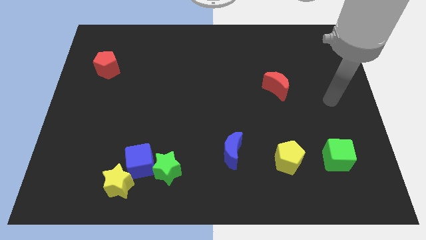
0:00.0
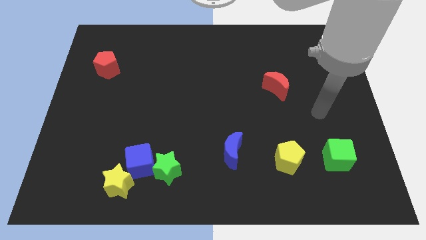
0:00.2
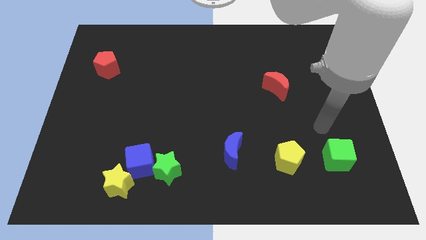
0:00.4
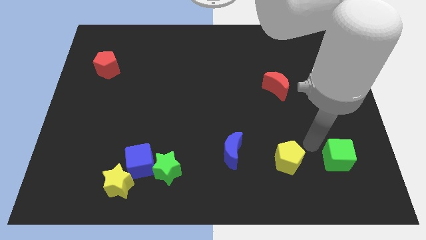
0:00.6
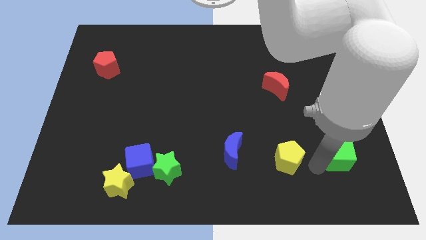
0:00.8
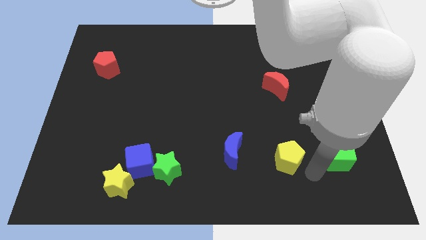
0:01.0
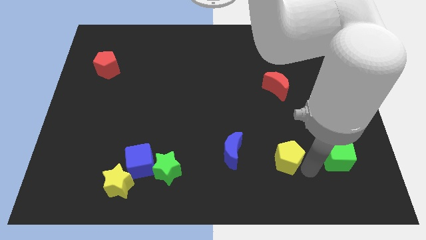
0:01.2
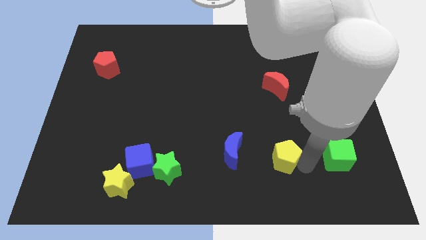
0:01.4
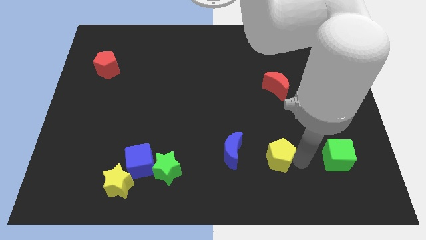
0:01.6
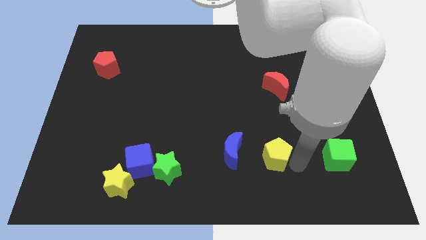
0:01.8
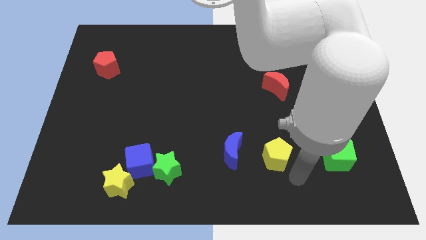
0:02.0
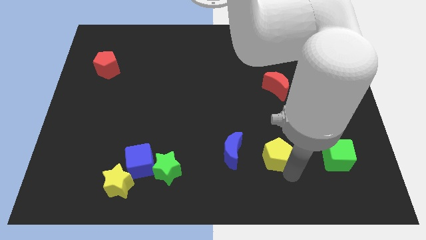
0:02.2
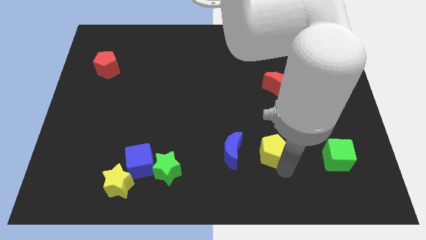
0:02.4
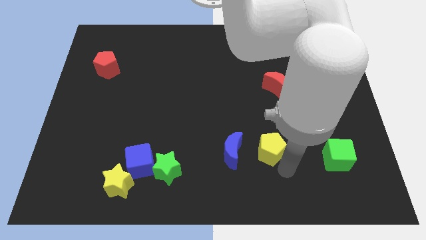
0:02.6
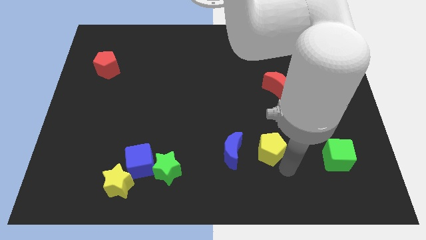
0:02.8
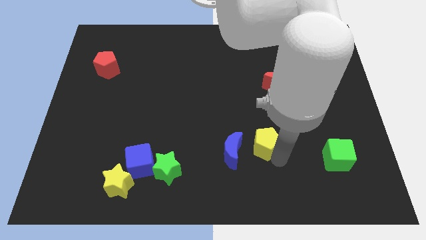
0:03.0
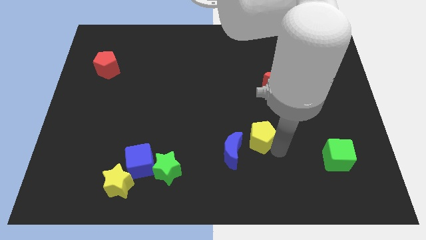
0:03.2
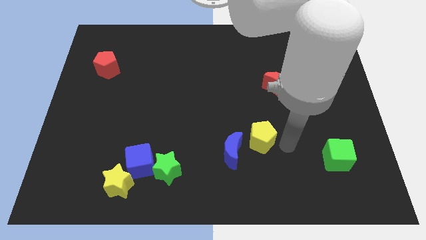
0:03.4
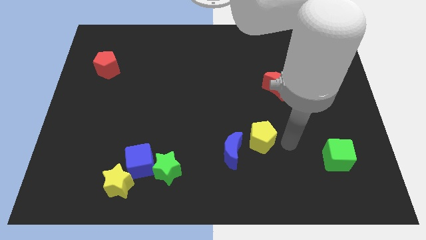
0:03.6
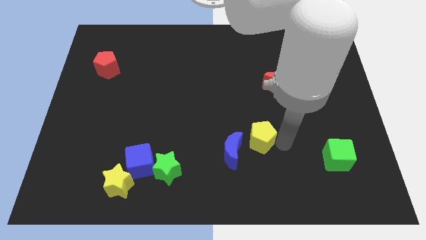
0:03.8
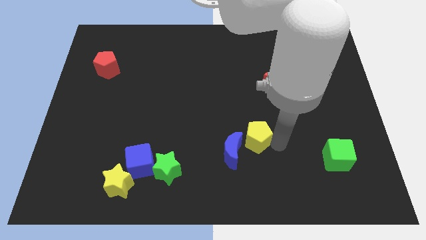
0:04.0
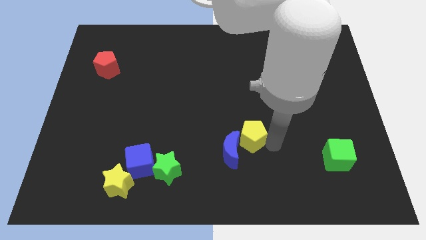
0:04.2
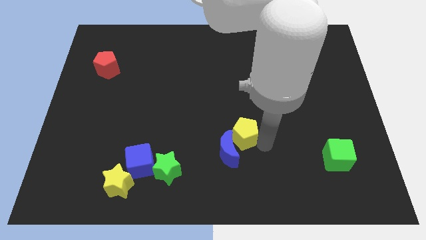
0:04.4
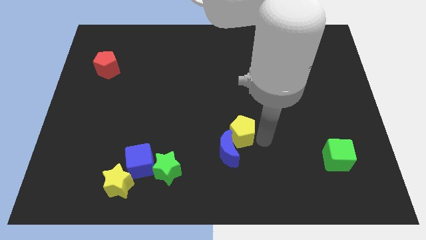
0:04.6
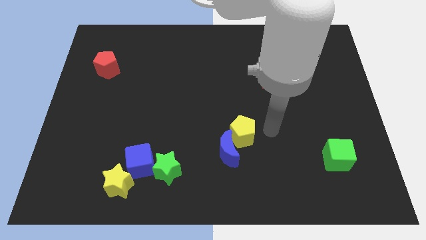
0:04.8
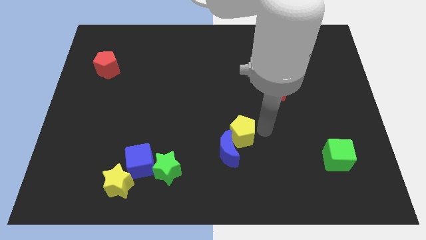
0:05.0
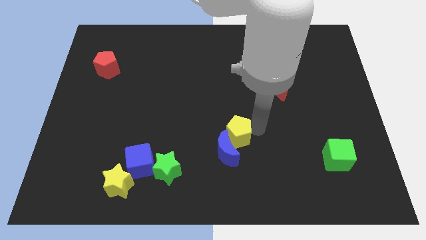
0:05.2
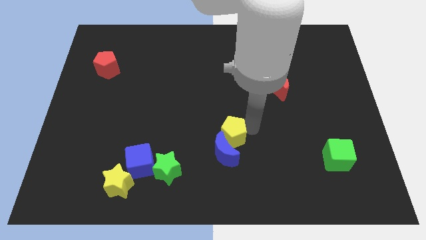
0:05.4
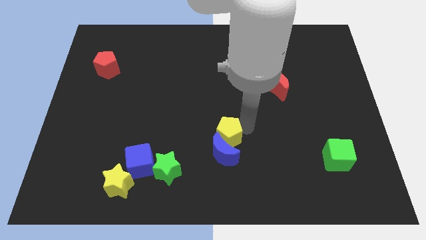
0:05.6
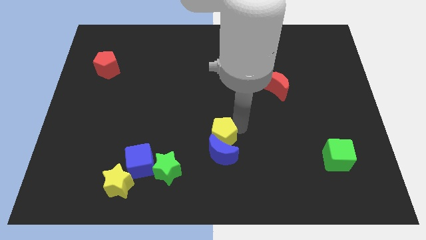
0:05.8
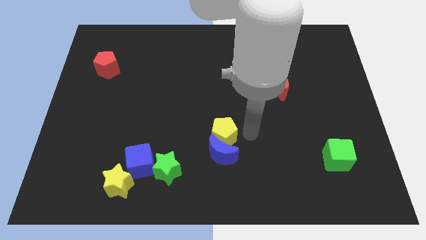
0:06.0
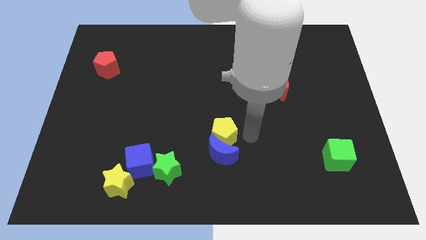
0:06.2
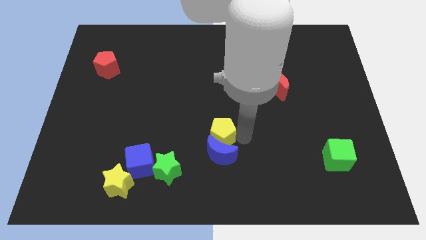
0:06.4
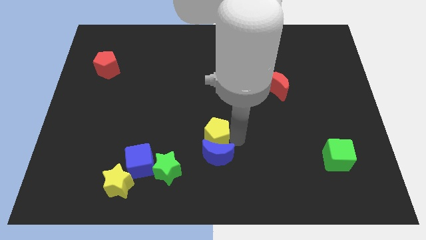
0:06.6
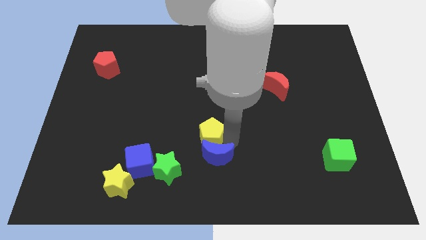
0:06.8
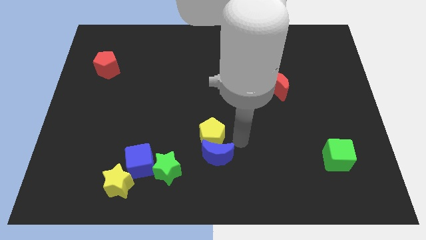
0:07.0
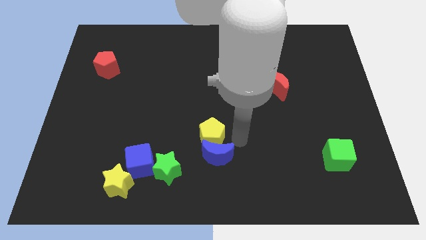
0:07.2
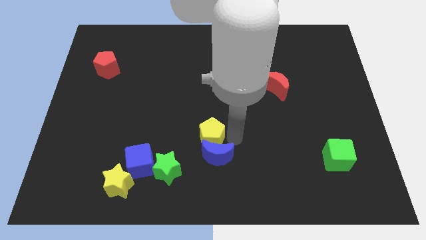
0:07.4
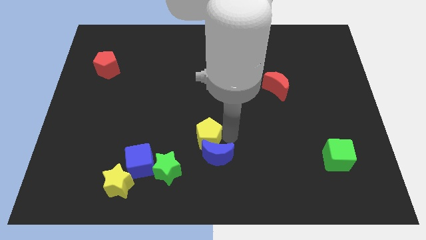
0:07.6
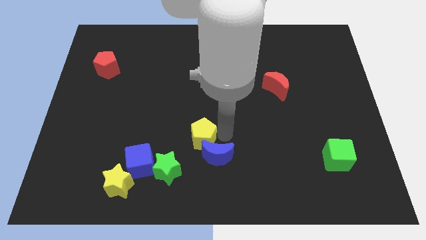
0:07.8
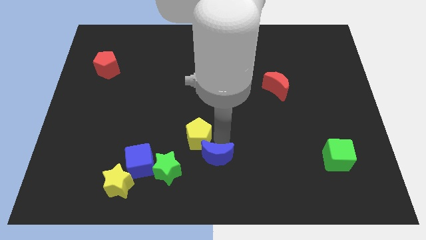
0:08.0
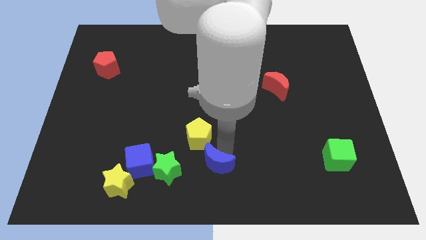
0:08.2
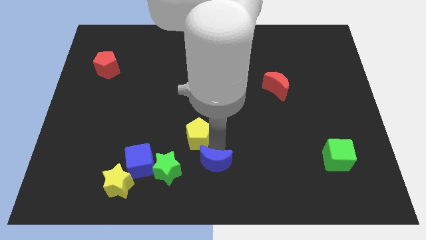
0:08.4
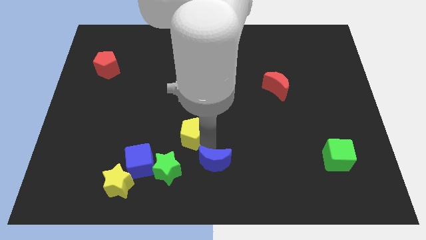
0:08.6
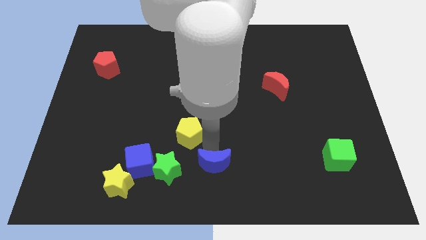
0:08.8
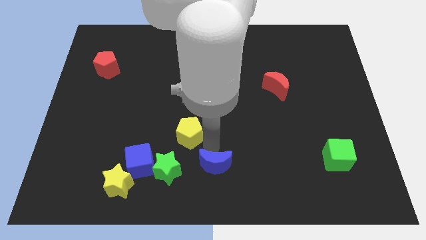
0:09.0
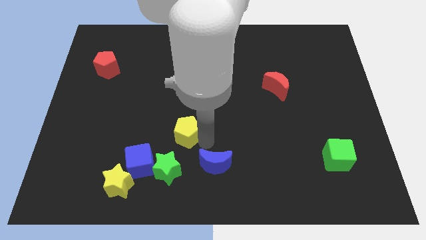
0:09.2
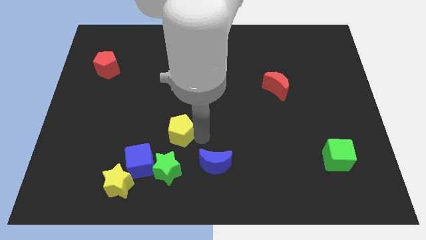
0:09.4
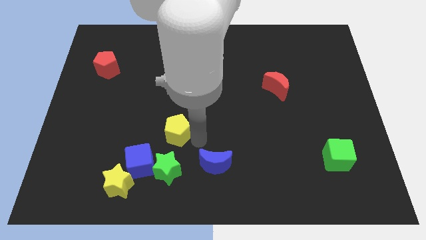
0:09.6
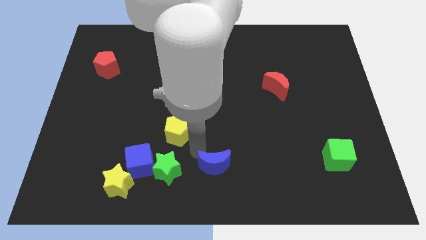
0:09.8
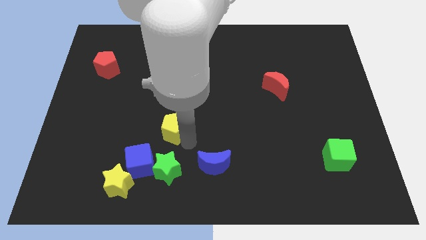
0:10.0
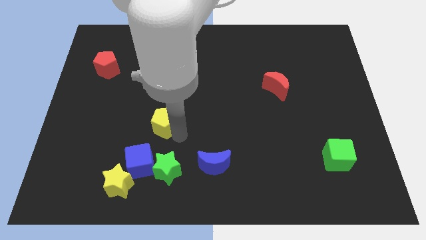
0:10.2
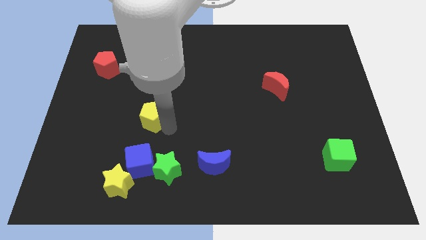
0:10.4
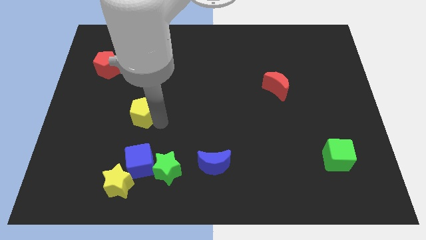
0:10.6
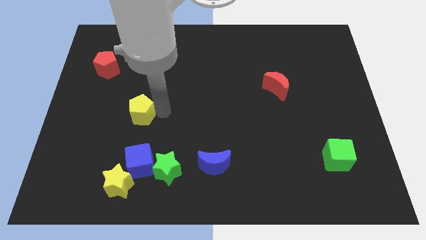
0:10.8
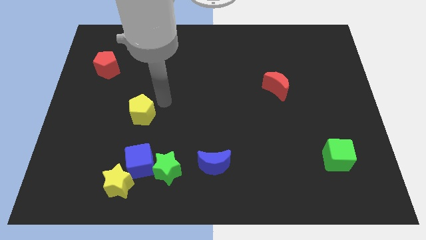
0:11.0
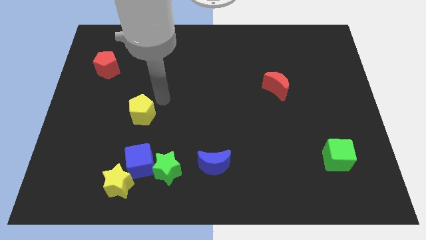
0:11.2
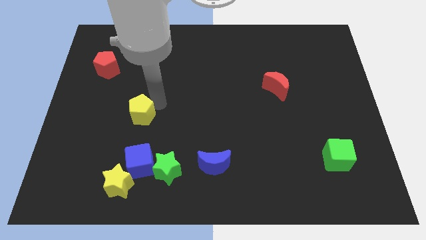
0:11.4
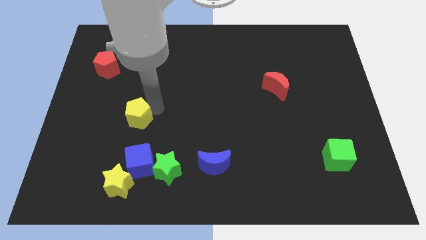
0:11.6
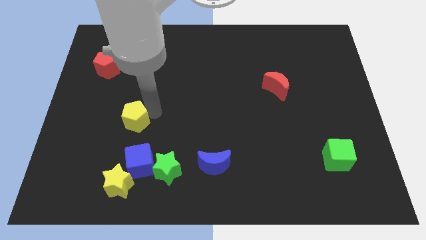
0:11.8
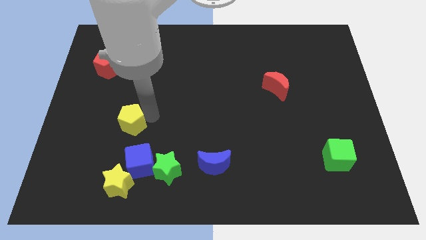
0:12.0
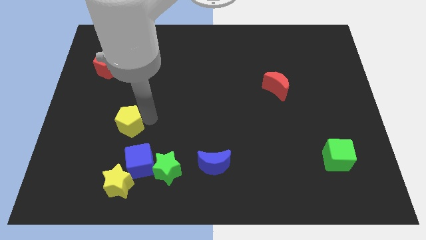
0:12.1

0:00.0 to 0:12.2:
move the yellow pentagon to the top left side of the blue cube

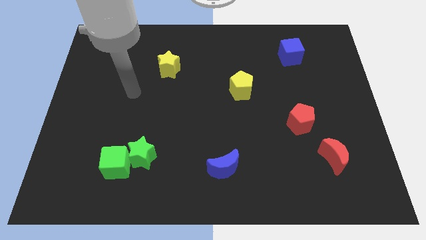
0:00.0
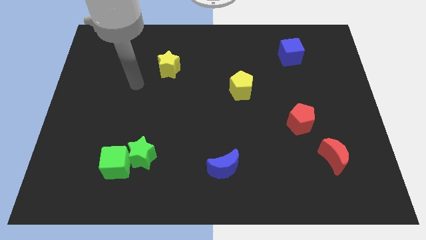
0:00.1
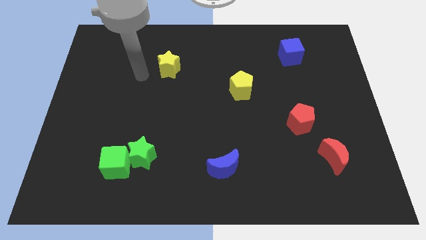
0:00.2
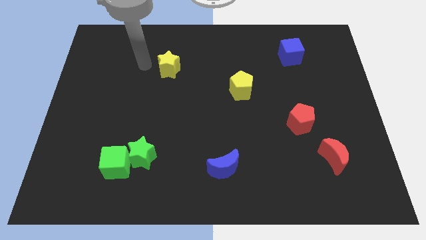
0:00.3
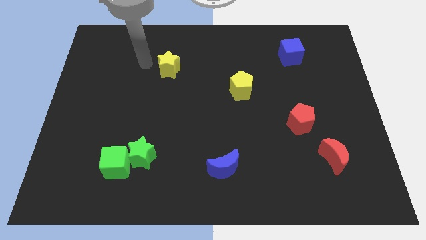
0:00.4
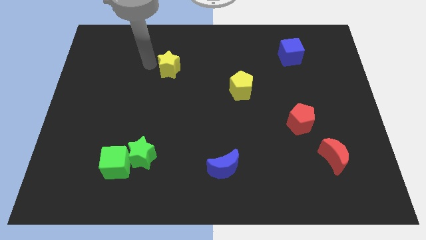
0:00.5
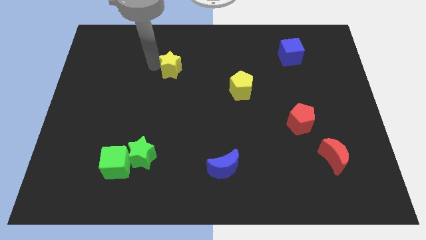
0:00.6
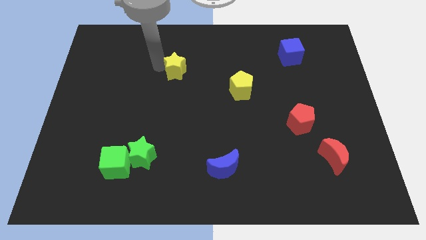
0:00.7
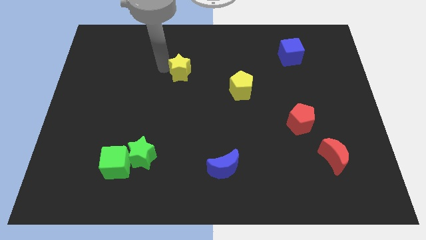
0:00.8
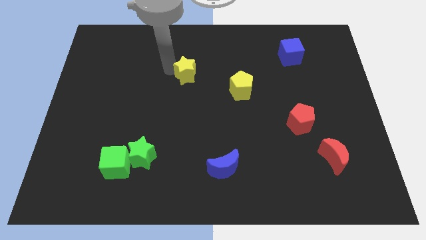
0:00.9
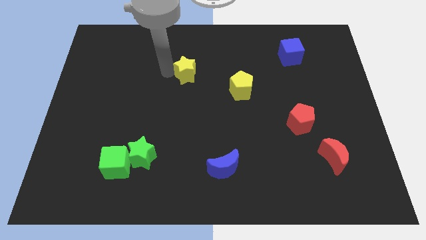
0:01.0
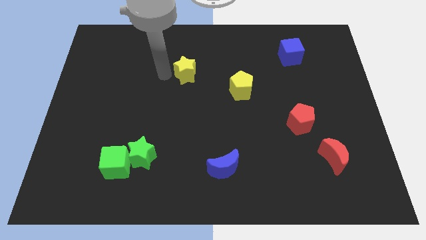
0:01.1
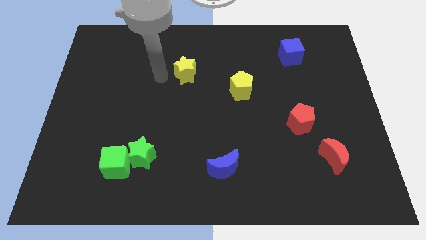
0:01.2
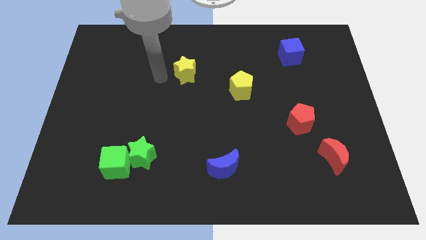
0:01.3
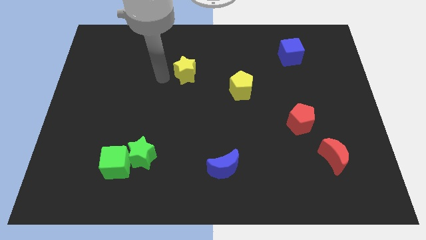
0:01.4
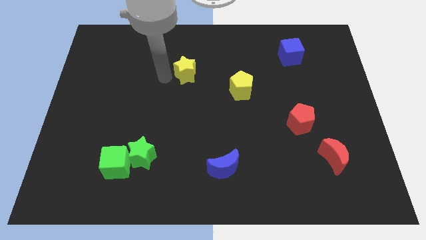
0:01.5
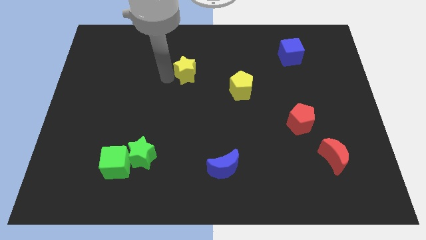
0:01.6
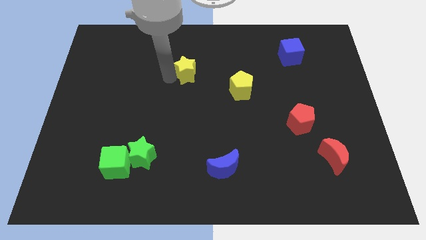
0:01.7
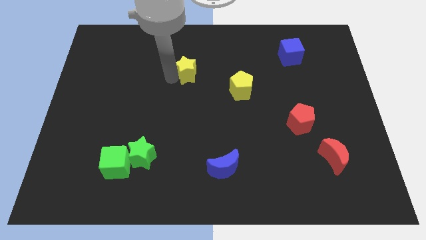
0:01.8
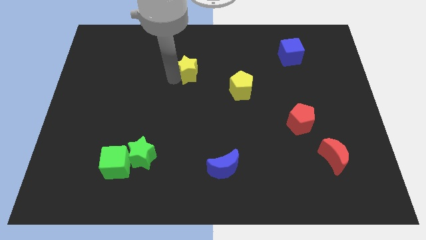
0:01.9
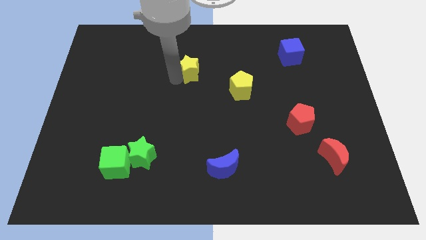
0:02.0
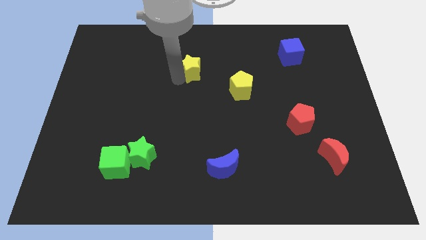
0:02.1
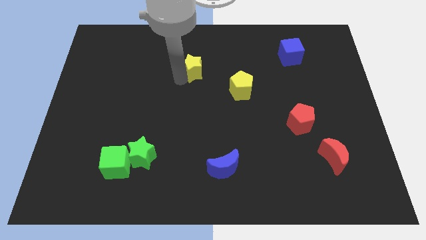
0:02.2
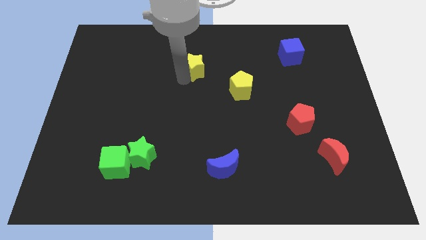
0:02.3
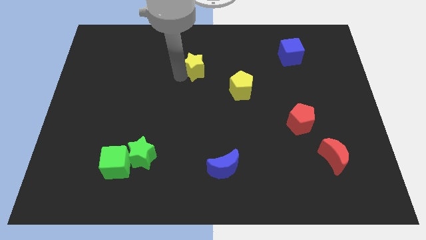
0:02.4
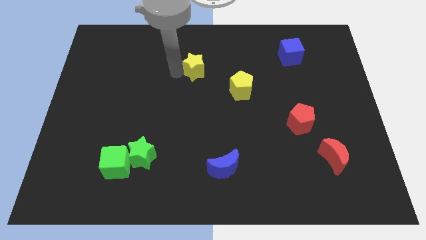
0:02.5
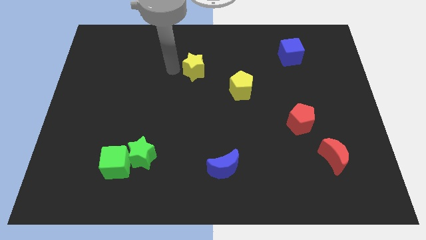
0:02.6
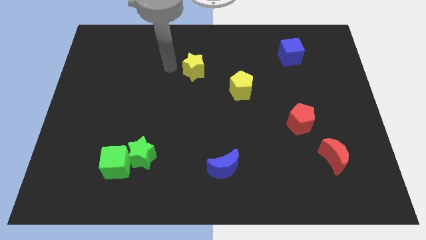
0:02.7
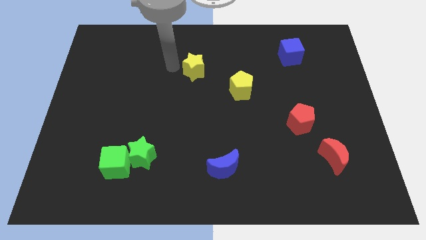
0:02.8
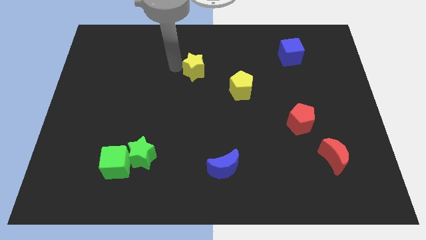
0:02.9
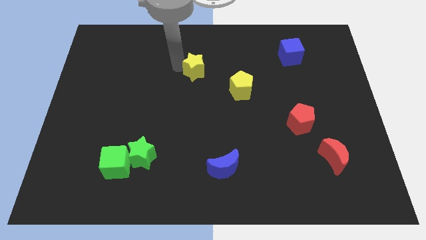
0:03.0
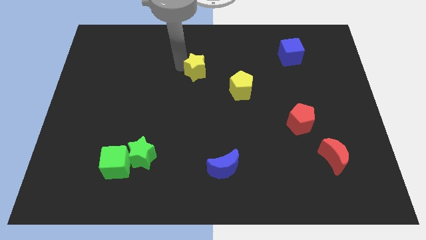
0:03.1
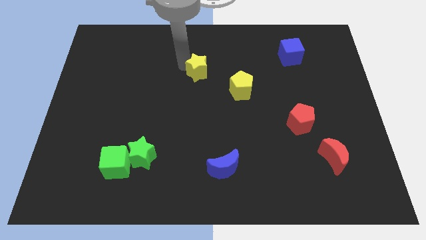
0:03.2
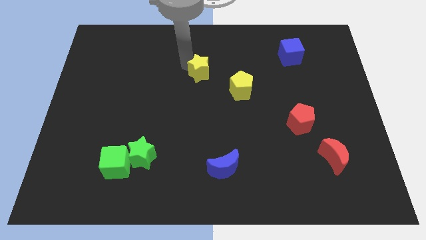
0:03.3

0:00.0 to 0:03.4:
slide the yellow star to the top left of the yellow pentagon
